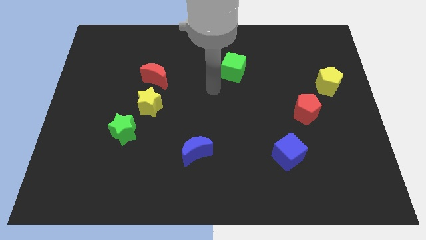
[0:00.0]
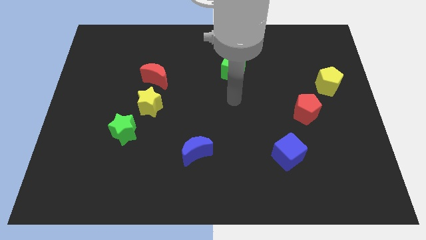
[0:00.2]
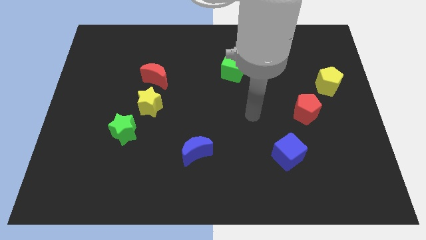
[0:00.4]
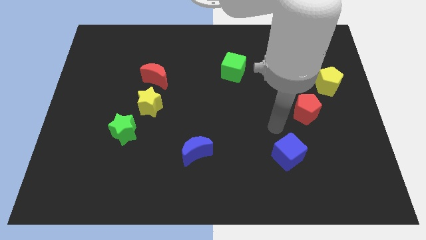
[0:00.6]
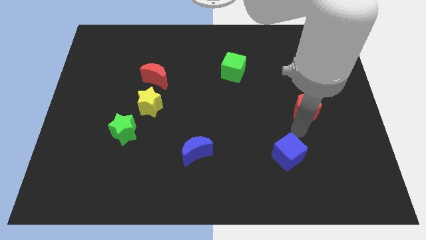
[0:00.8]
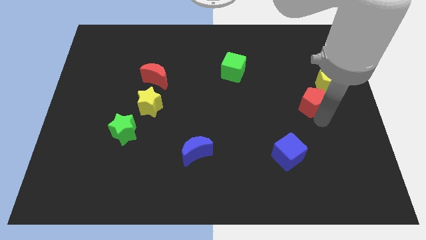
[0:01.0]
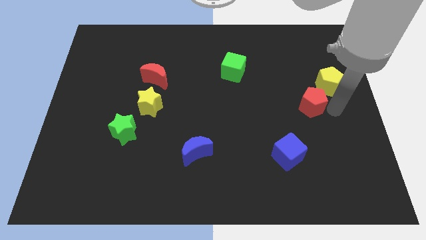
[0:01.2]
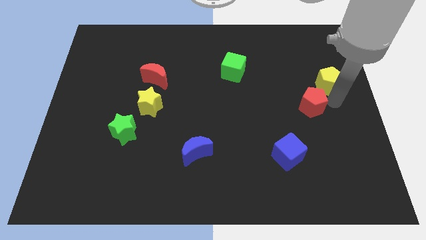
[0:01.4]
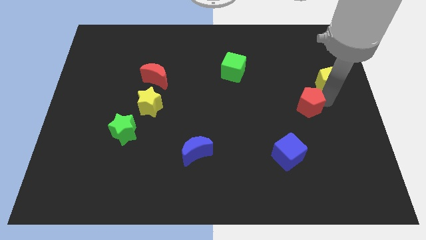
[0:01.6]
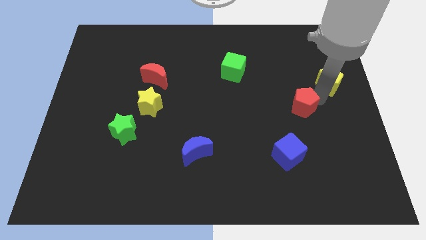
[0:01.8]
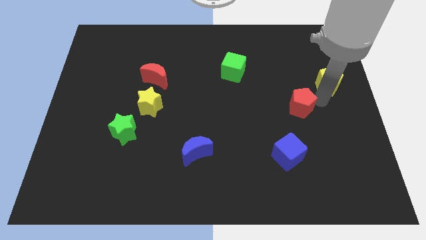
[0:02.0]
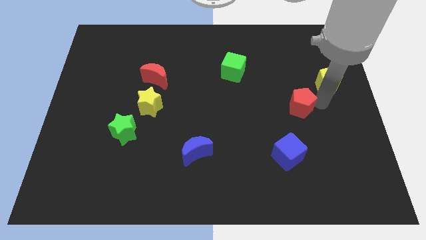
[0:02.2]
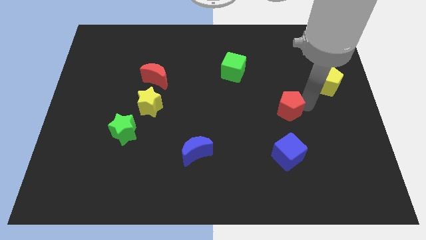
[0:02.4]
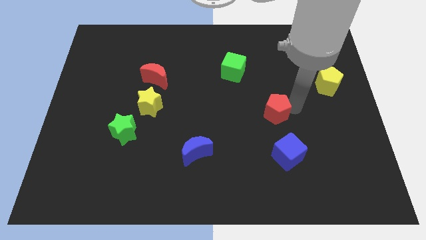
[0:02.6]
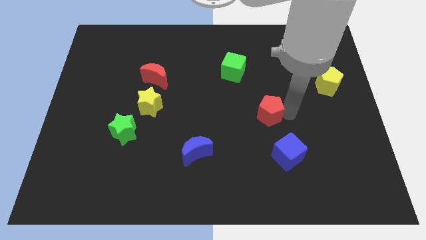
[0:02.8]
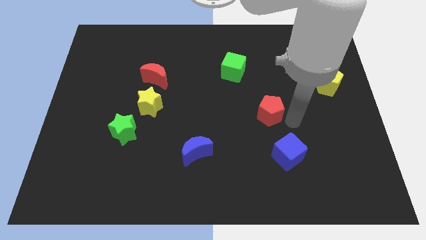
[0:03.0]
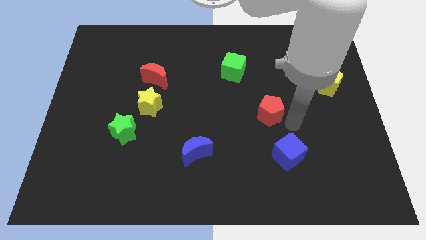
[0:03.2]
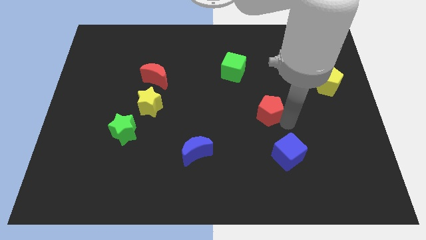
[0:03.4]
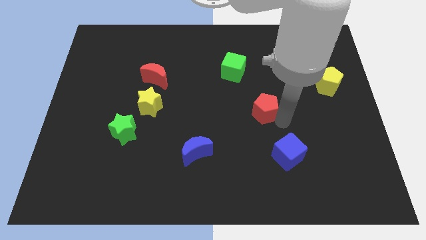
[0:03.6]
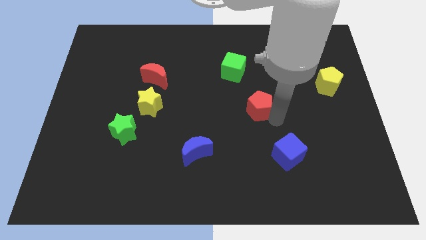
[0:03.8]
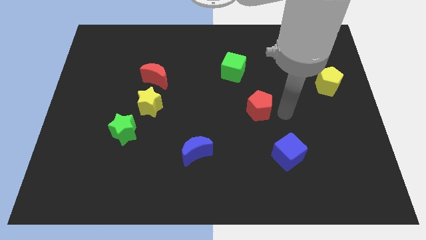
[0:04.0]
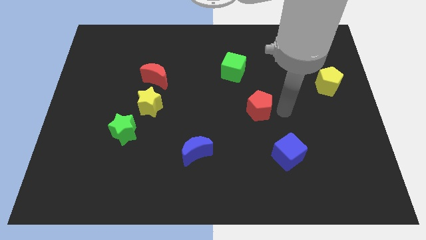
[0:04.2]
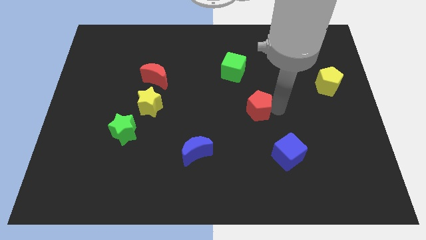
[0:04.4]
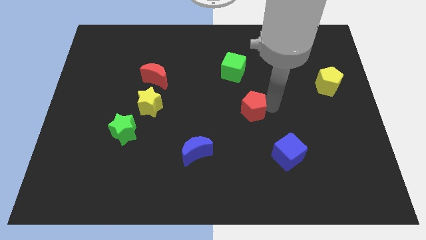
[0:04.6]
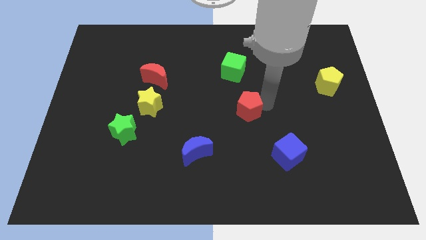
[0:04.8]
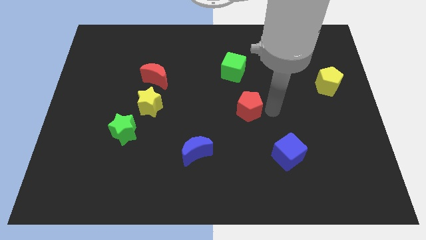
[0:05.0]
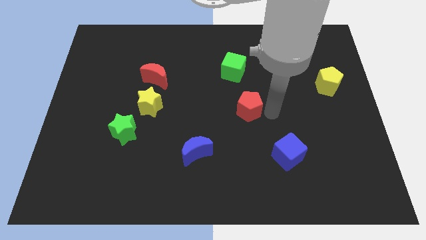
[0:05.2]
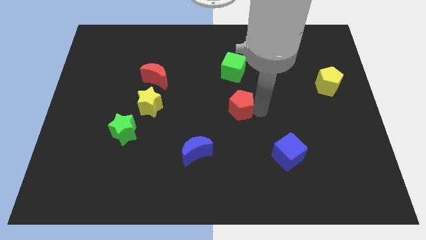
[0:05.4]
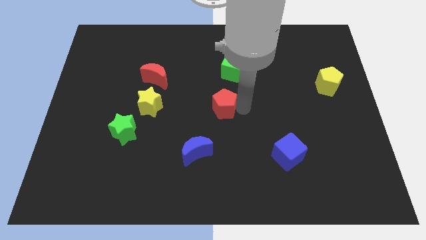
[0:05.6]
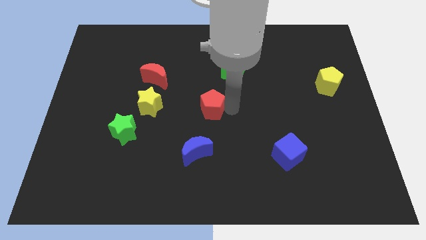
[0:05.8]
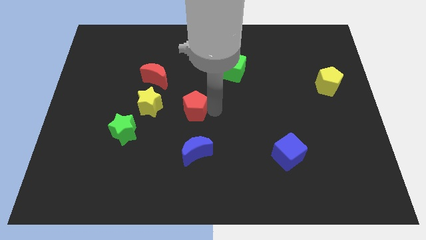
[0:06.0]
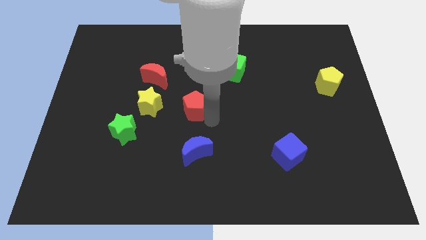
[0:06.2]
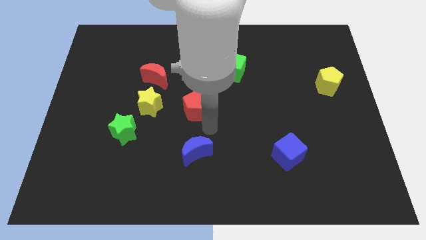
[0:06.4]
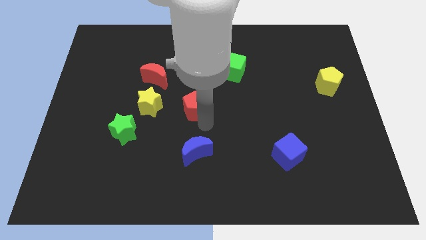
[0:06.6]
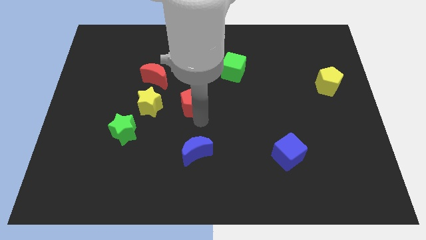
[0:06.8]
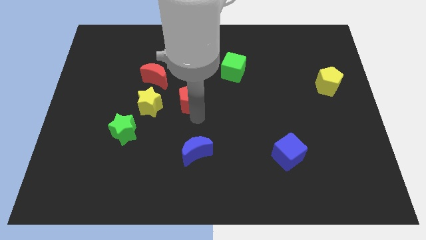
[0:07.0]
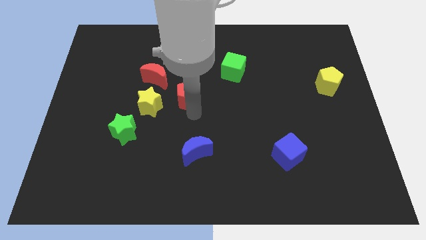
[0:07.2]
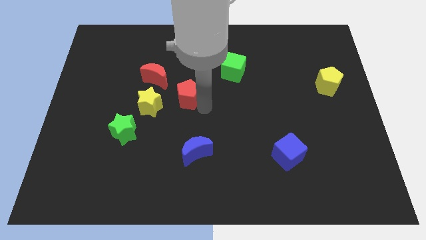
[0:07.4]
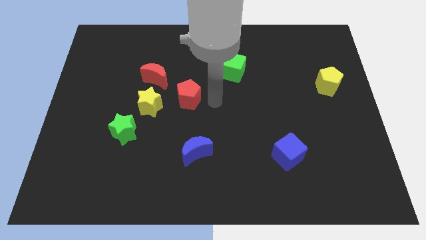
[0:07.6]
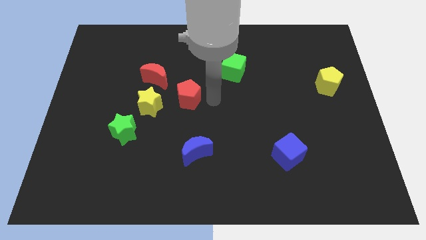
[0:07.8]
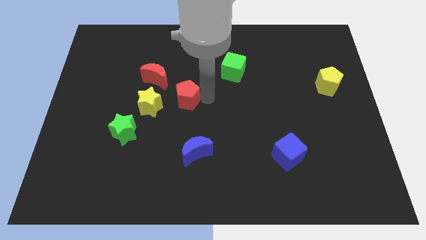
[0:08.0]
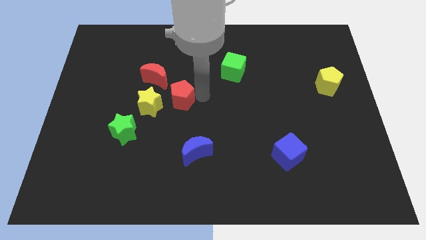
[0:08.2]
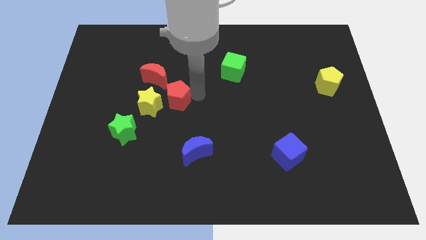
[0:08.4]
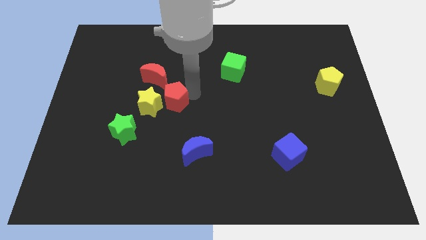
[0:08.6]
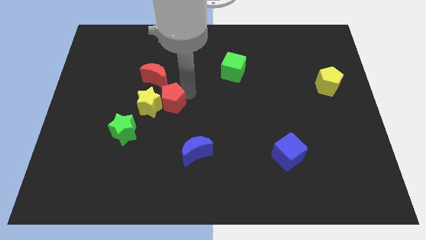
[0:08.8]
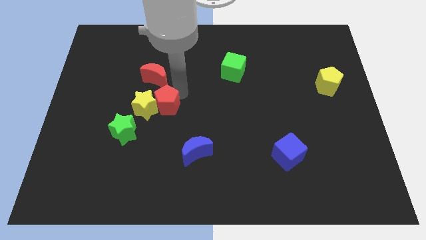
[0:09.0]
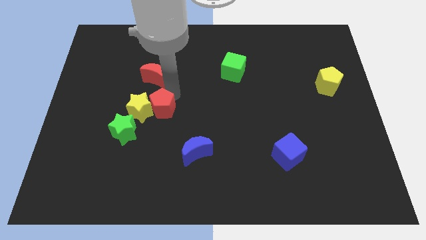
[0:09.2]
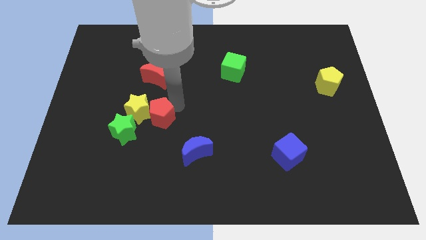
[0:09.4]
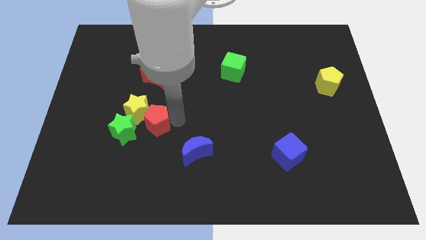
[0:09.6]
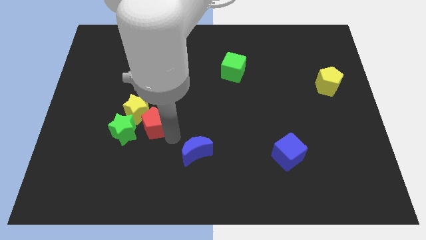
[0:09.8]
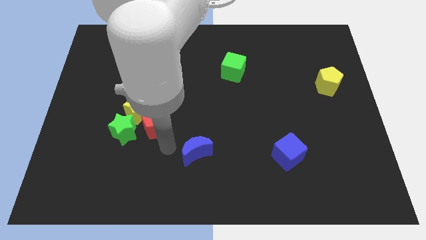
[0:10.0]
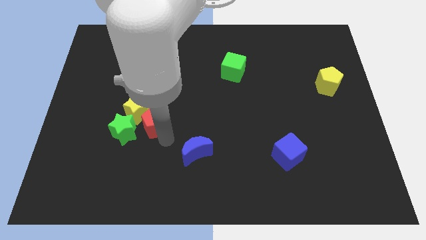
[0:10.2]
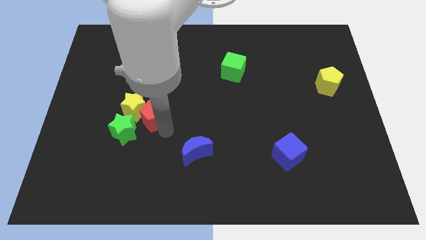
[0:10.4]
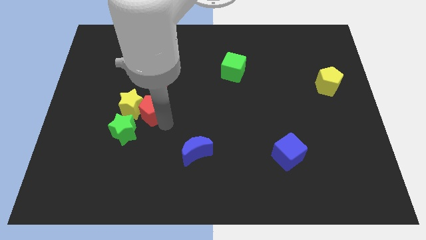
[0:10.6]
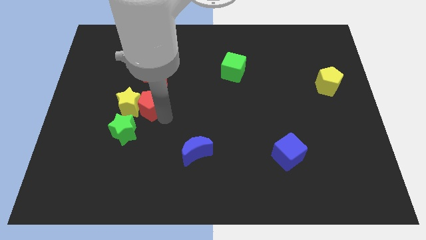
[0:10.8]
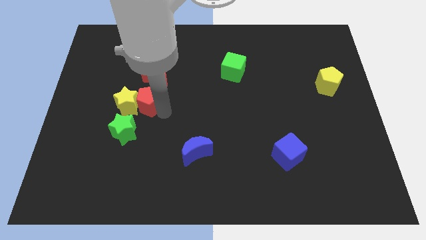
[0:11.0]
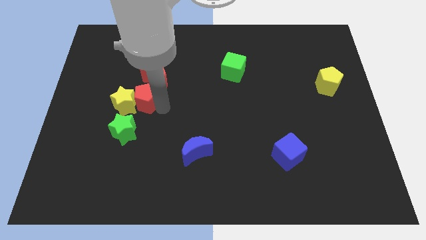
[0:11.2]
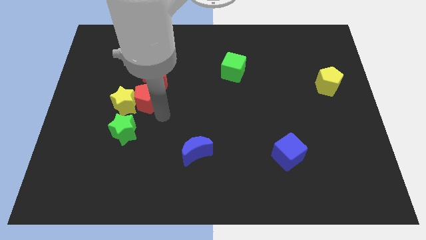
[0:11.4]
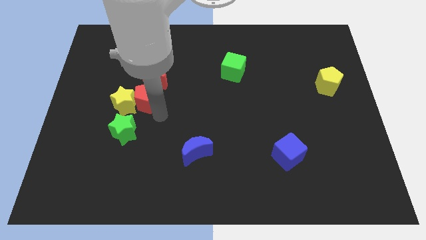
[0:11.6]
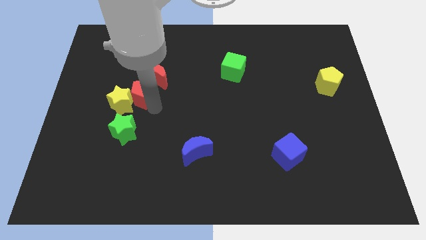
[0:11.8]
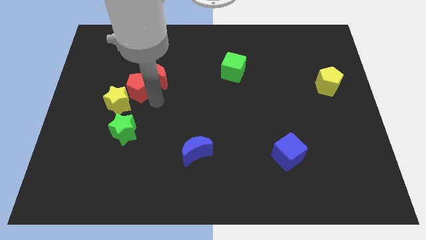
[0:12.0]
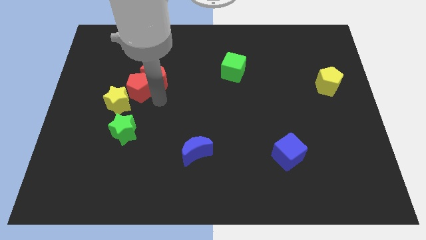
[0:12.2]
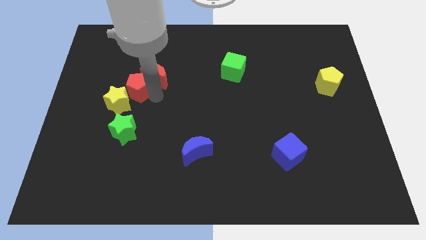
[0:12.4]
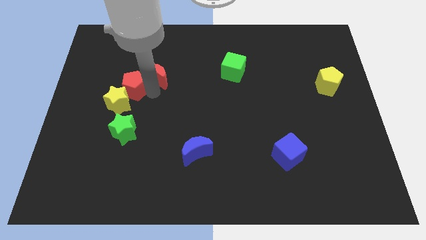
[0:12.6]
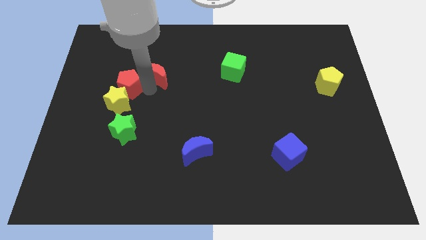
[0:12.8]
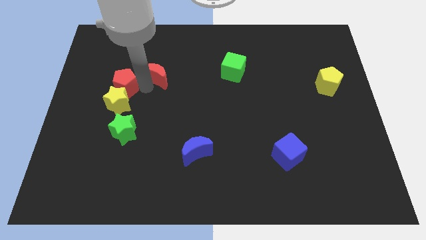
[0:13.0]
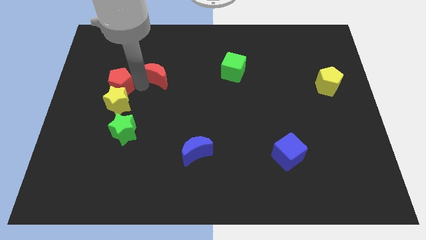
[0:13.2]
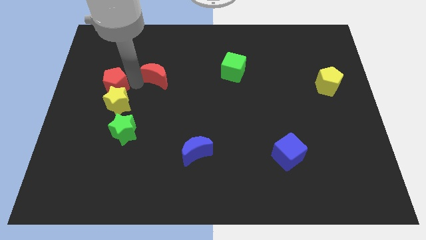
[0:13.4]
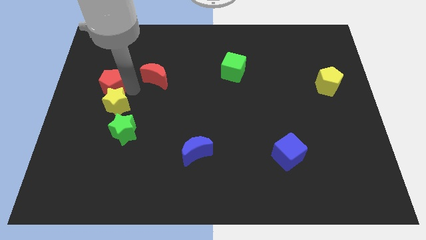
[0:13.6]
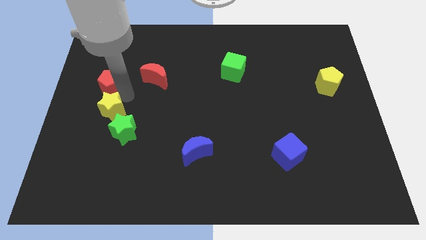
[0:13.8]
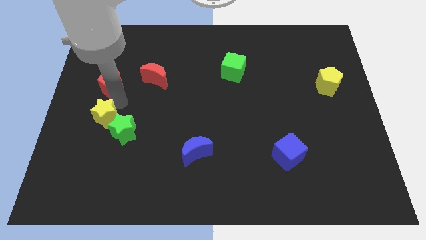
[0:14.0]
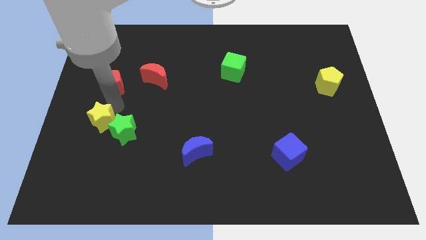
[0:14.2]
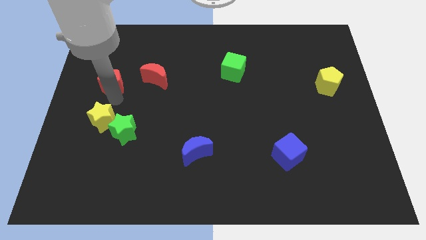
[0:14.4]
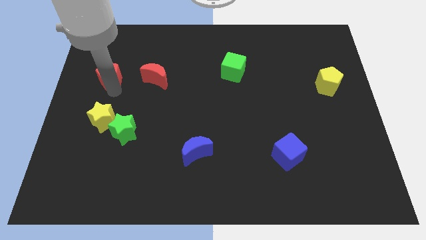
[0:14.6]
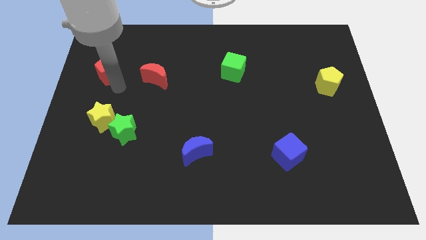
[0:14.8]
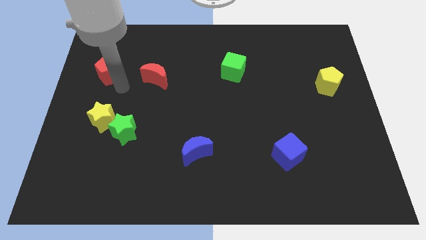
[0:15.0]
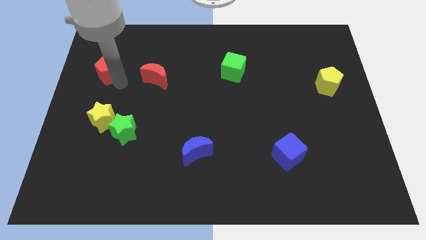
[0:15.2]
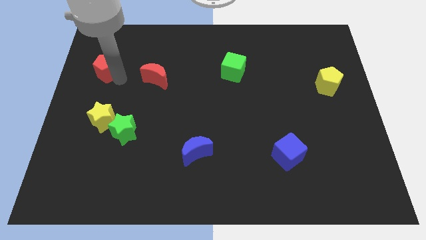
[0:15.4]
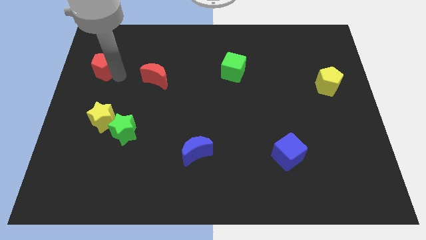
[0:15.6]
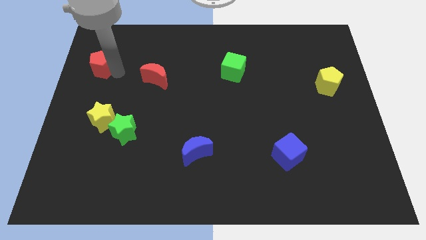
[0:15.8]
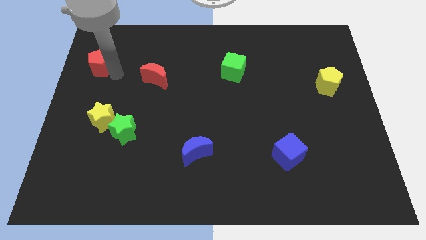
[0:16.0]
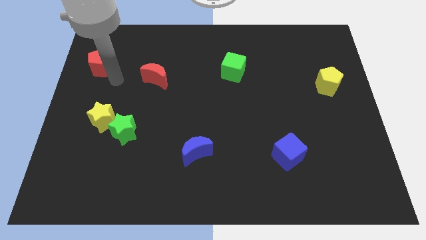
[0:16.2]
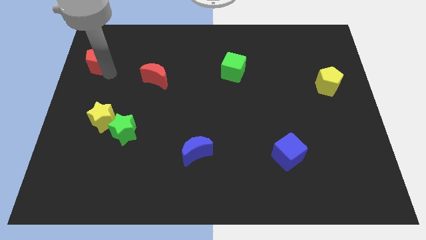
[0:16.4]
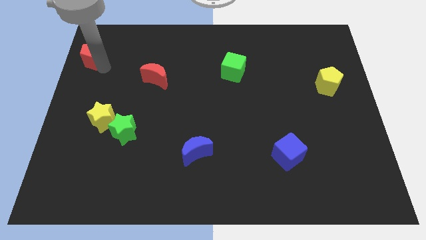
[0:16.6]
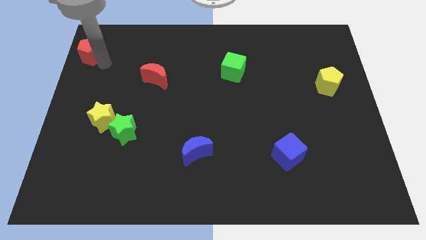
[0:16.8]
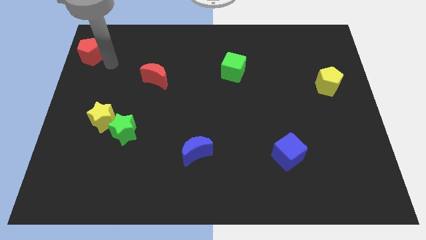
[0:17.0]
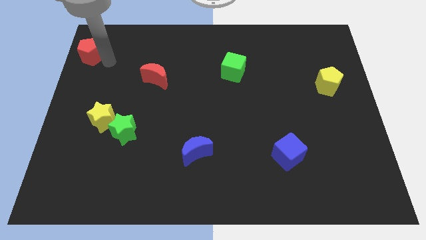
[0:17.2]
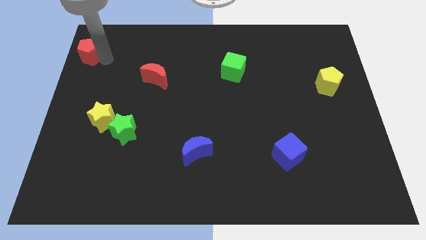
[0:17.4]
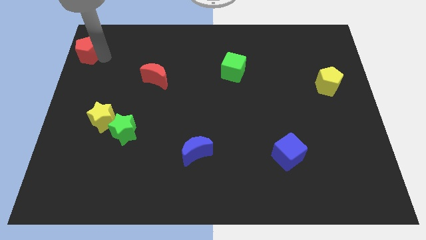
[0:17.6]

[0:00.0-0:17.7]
move the red pentagon to the top left of the board
